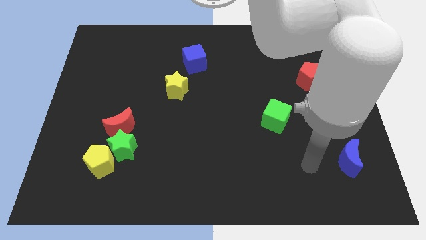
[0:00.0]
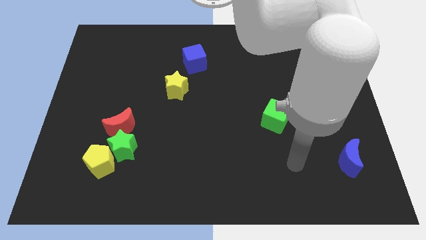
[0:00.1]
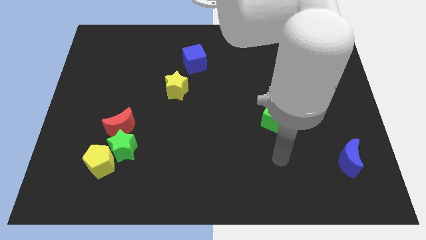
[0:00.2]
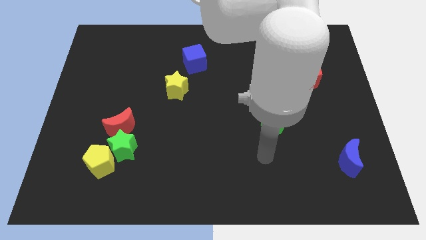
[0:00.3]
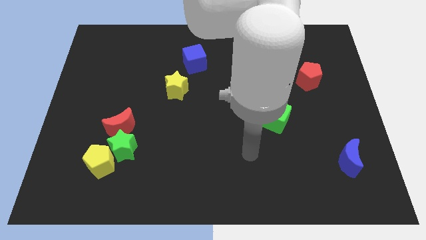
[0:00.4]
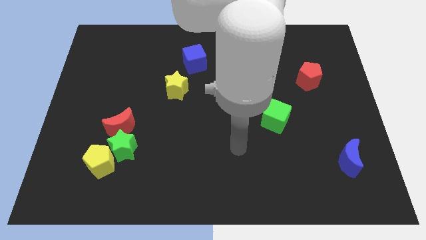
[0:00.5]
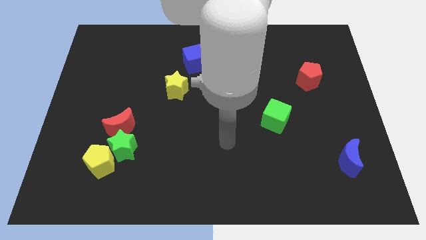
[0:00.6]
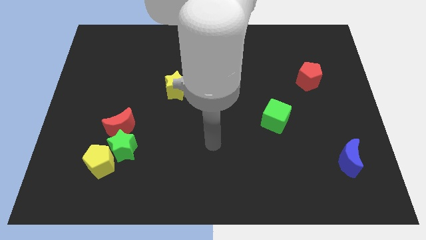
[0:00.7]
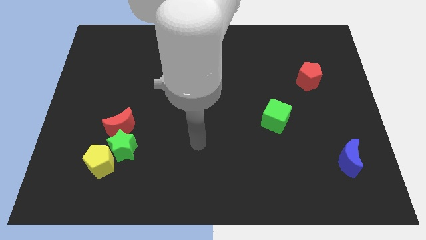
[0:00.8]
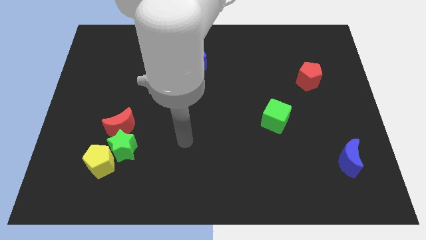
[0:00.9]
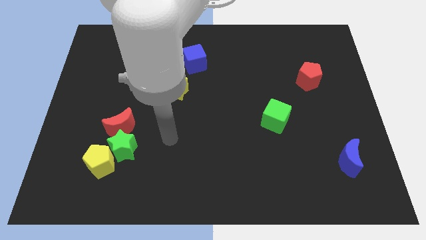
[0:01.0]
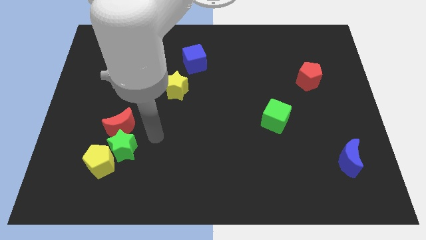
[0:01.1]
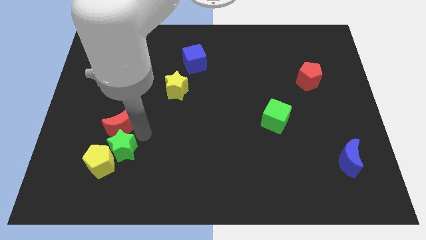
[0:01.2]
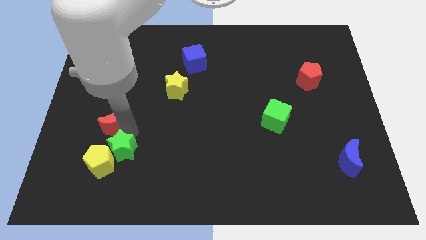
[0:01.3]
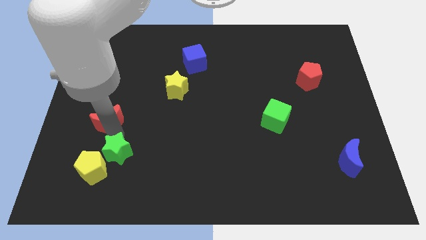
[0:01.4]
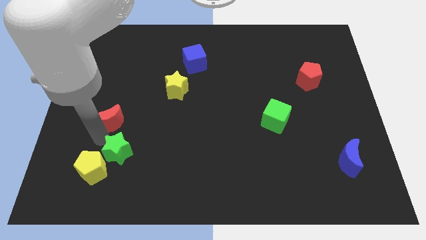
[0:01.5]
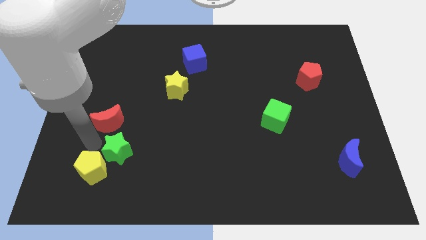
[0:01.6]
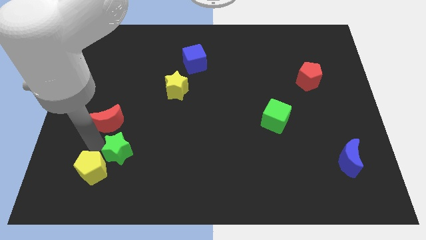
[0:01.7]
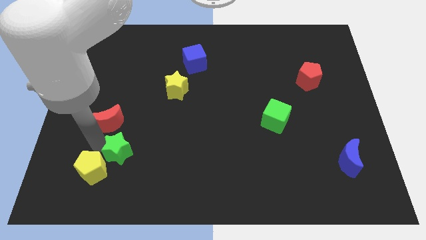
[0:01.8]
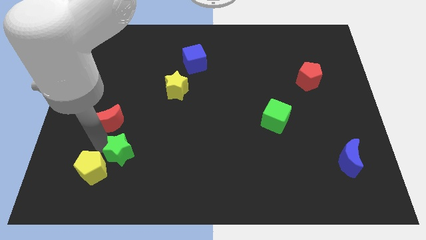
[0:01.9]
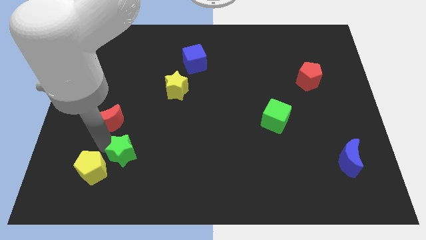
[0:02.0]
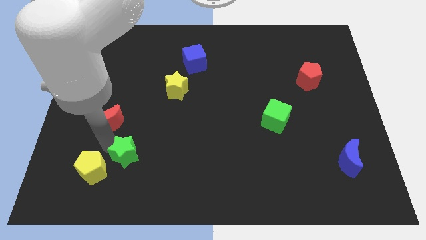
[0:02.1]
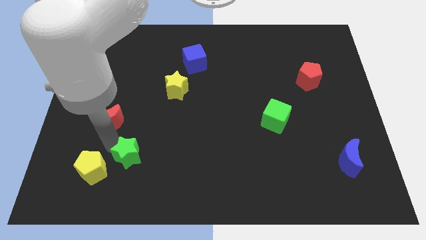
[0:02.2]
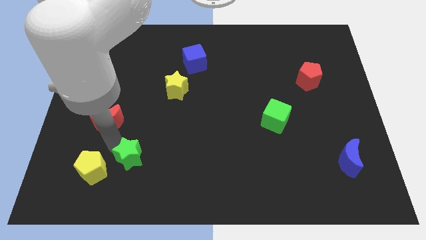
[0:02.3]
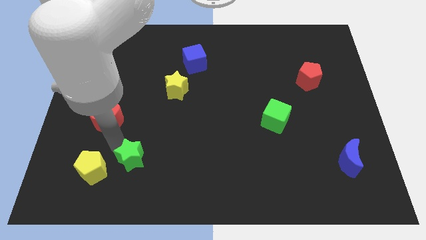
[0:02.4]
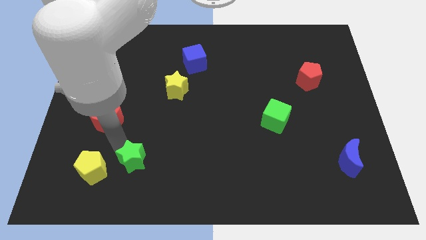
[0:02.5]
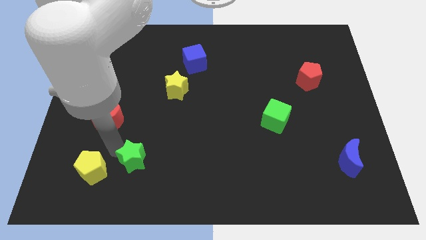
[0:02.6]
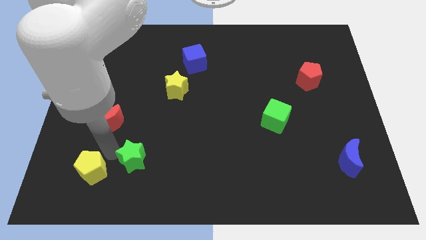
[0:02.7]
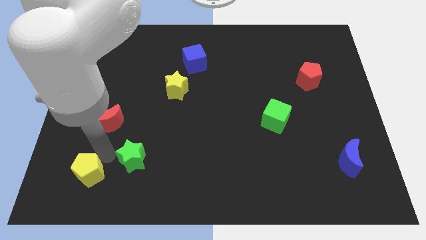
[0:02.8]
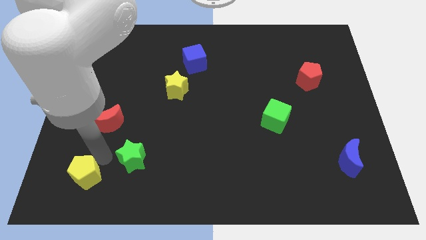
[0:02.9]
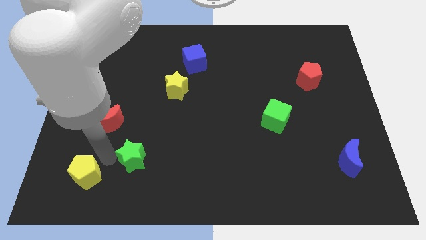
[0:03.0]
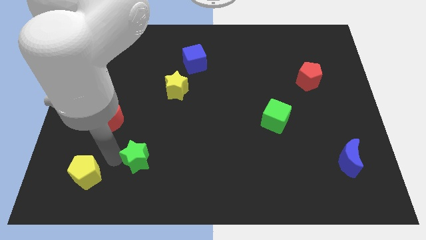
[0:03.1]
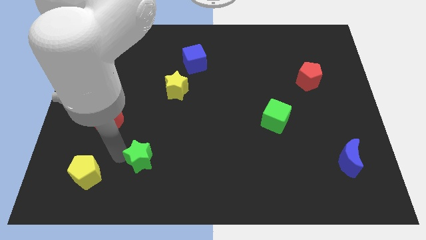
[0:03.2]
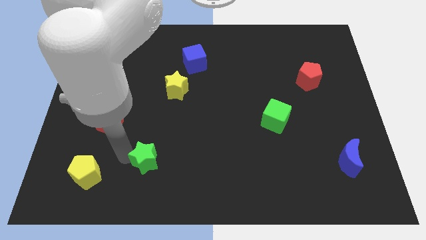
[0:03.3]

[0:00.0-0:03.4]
separate the green star from the yellow pentagon and red moon

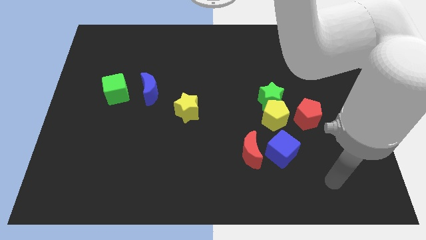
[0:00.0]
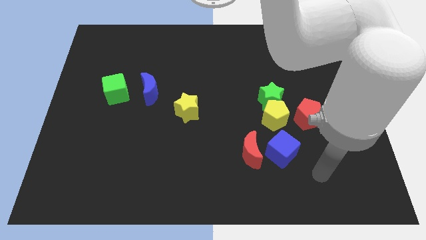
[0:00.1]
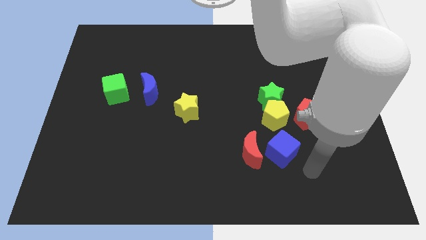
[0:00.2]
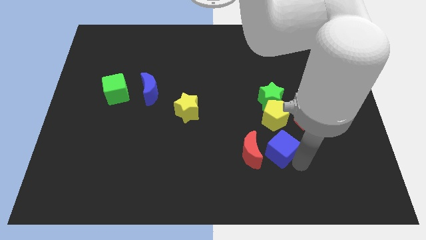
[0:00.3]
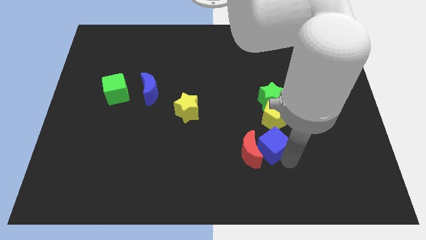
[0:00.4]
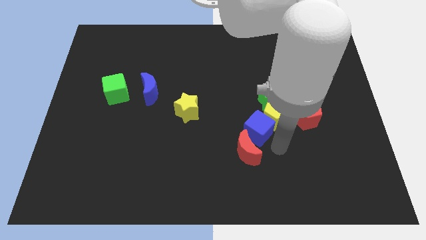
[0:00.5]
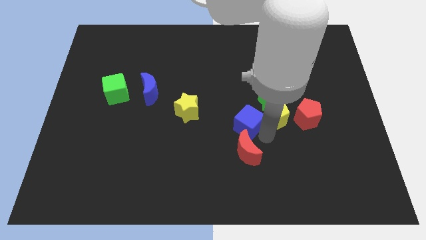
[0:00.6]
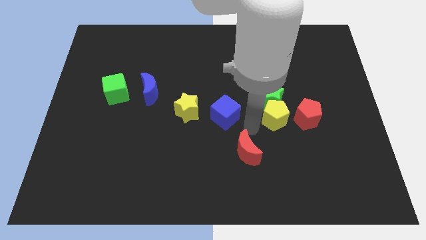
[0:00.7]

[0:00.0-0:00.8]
pull the red moon apart from the blue cube

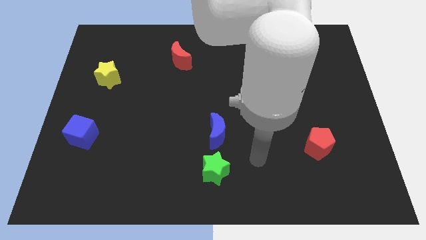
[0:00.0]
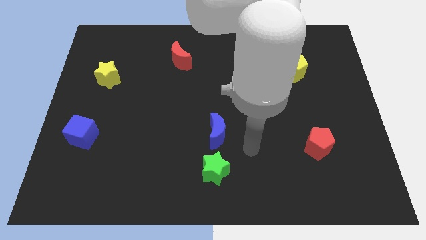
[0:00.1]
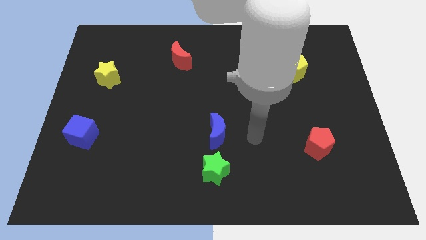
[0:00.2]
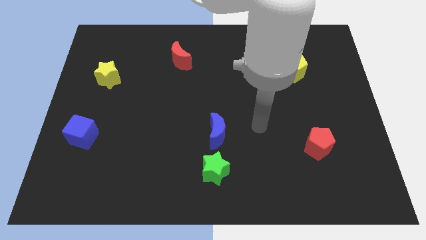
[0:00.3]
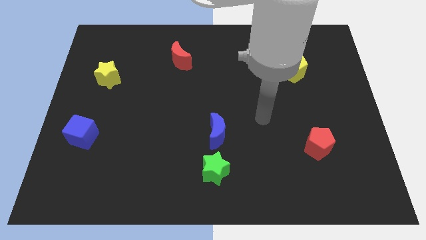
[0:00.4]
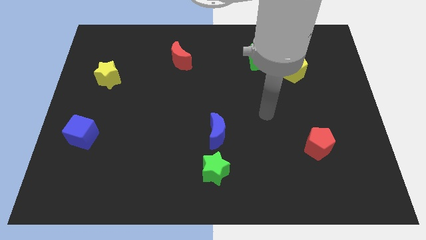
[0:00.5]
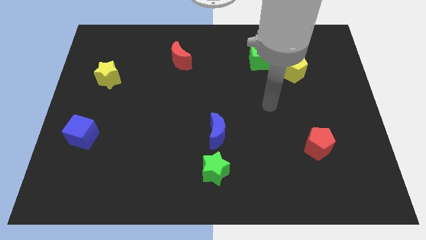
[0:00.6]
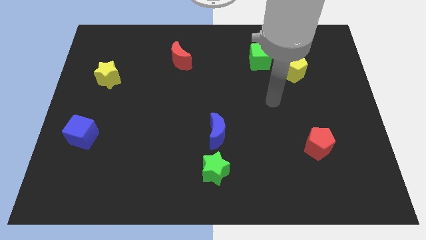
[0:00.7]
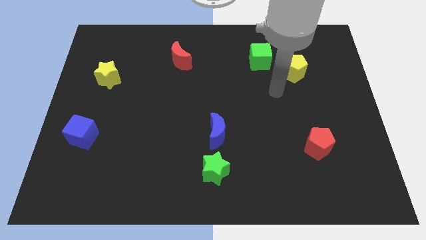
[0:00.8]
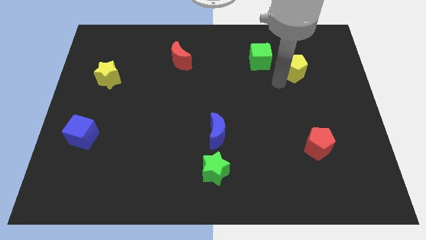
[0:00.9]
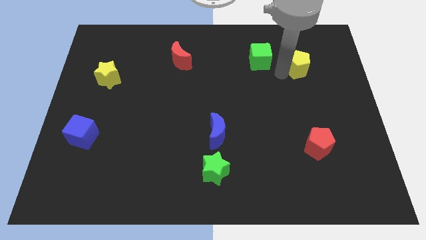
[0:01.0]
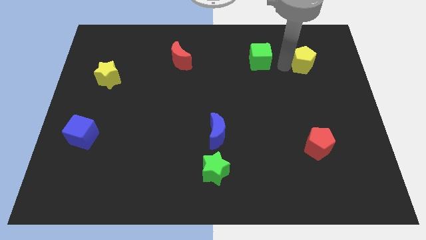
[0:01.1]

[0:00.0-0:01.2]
pull the green cube apart from the yellow pentagon

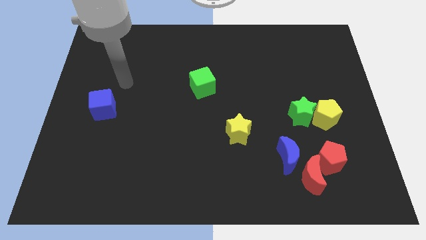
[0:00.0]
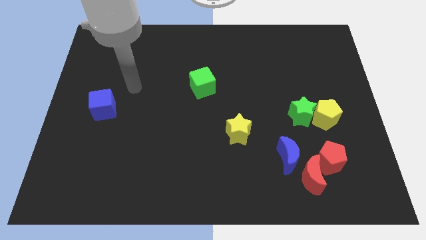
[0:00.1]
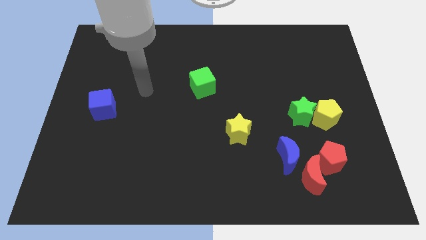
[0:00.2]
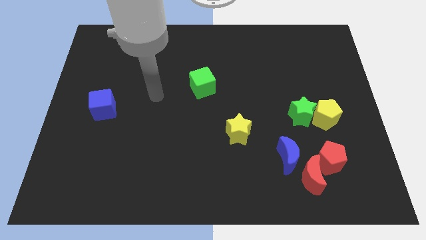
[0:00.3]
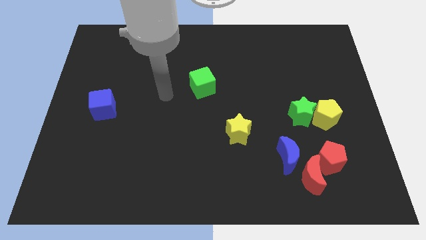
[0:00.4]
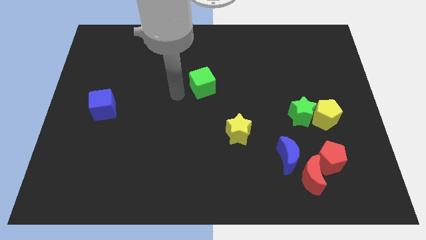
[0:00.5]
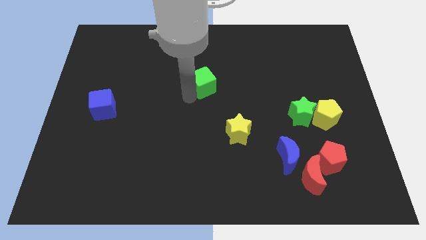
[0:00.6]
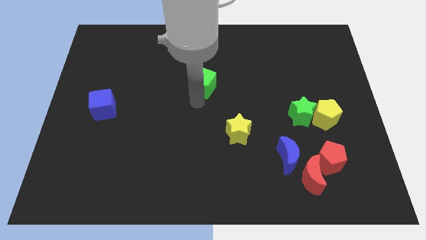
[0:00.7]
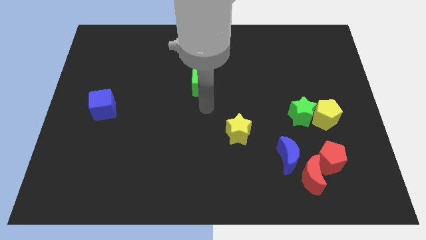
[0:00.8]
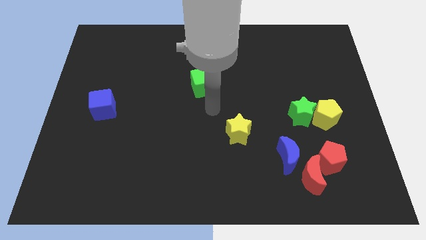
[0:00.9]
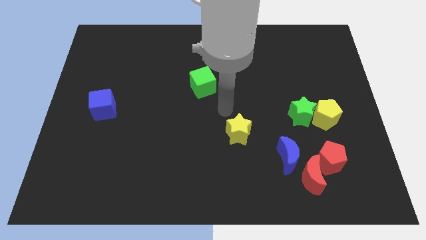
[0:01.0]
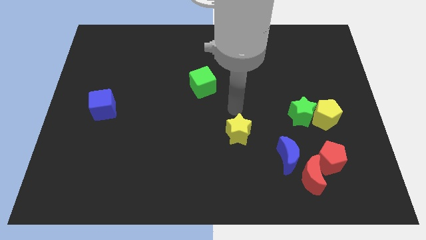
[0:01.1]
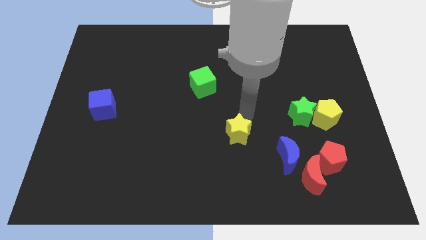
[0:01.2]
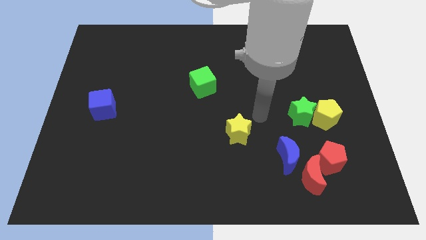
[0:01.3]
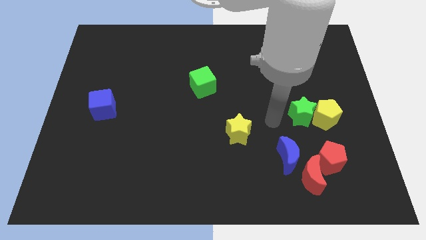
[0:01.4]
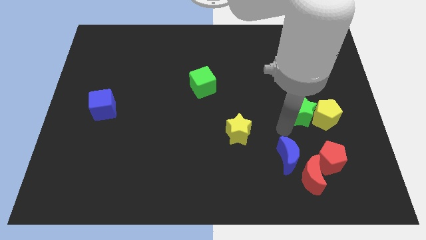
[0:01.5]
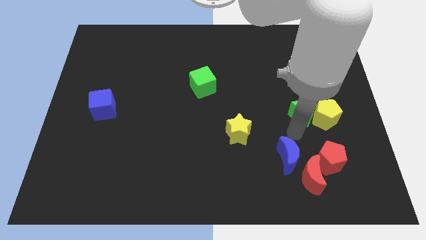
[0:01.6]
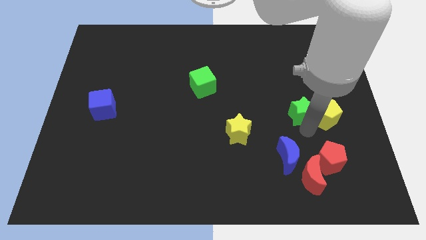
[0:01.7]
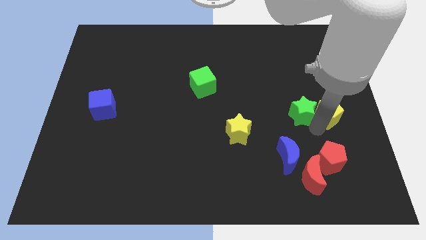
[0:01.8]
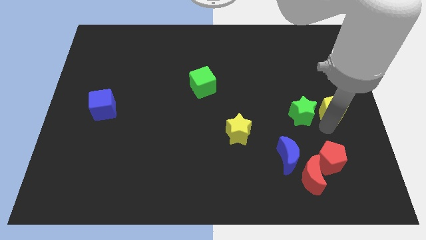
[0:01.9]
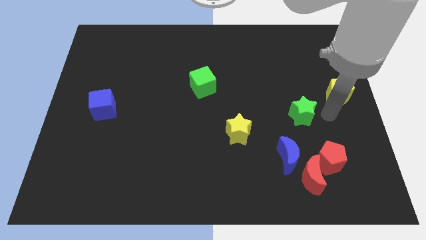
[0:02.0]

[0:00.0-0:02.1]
separate the green star from the yellow pentagon

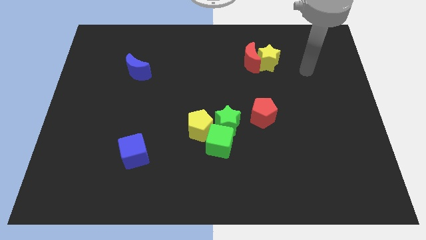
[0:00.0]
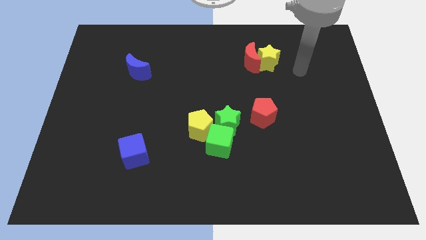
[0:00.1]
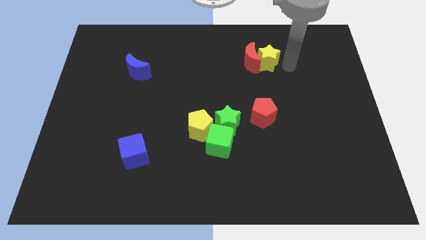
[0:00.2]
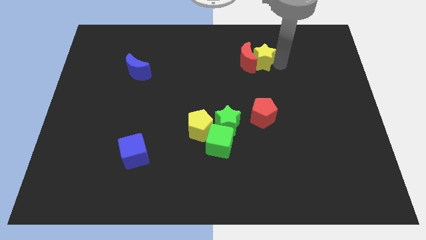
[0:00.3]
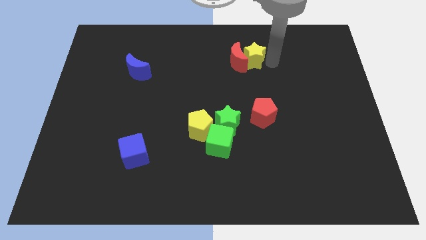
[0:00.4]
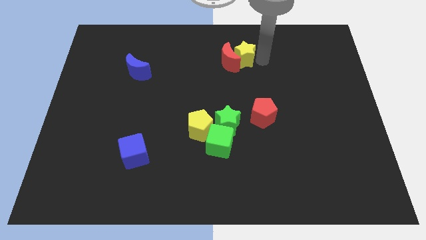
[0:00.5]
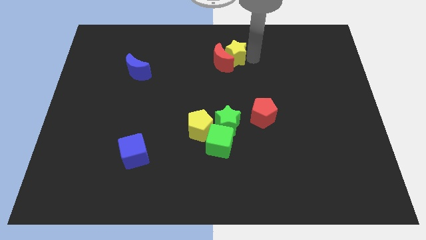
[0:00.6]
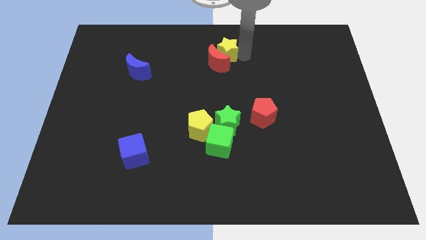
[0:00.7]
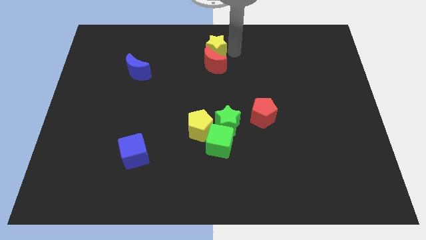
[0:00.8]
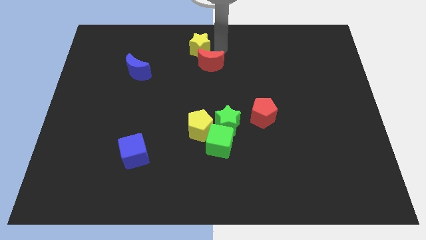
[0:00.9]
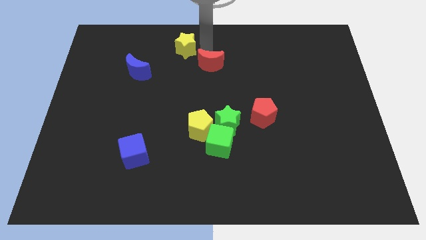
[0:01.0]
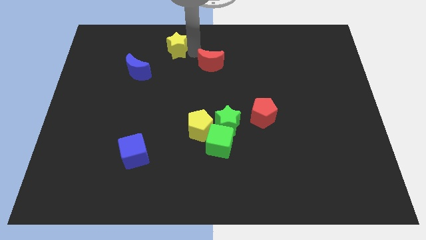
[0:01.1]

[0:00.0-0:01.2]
move the red moon away from the yellow star

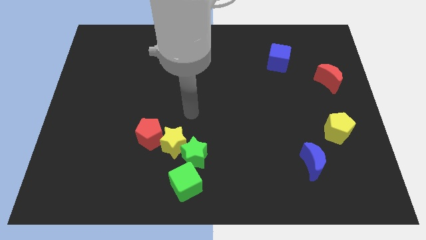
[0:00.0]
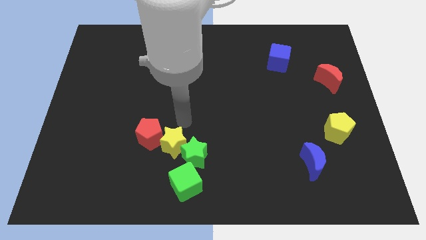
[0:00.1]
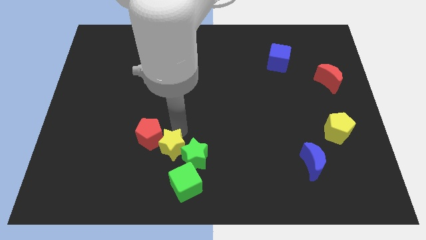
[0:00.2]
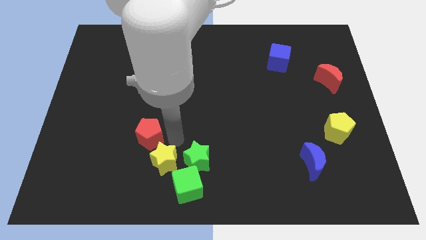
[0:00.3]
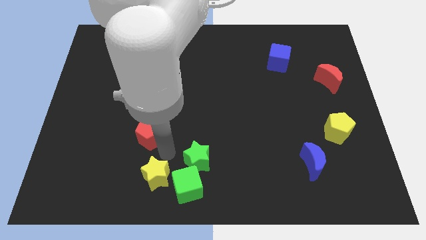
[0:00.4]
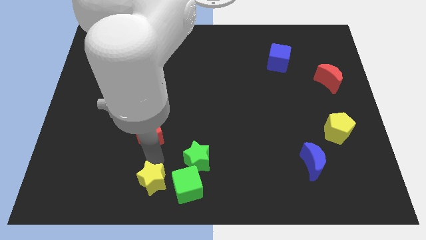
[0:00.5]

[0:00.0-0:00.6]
move the red pentagon away from the yellow star
